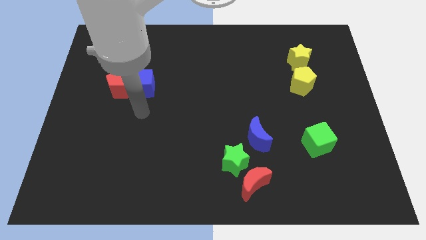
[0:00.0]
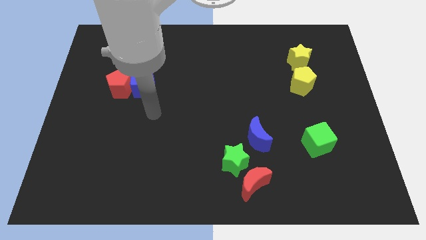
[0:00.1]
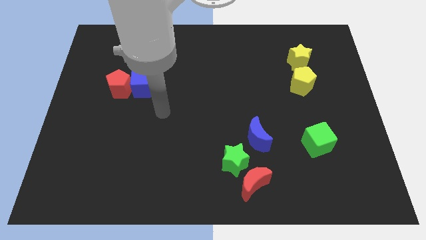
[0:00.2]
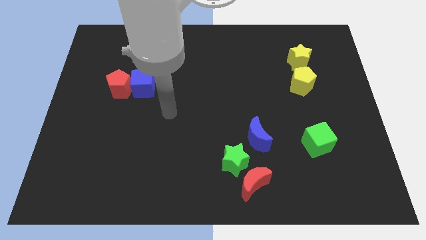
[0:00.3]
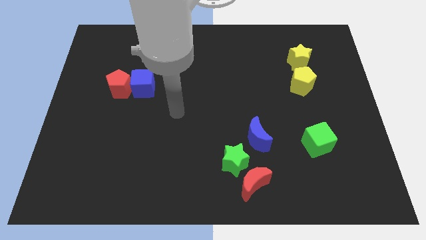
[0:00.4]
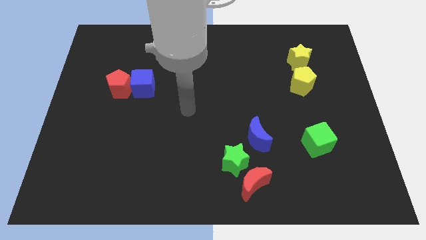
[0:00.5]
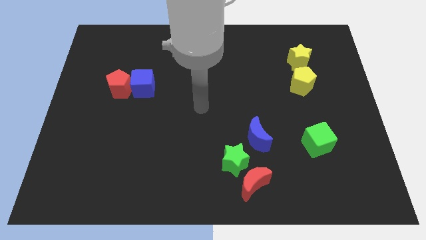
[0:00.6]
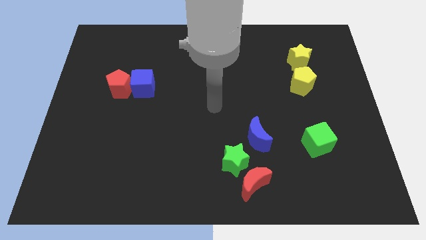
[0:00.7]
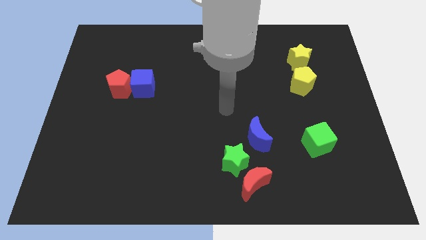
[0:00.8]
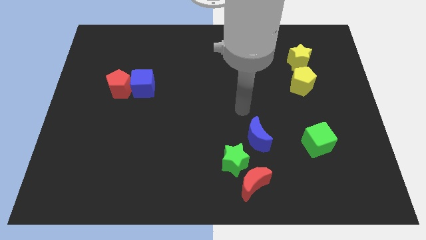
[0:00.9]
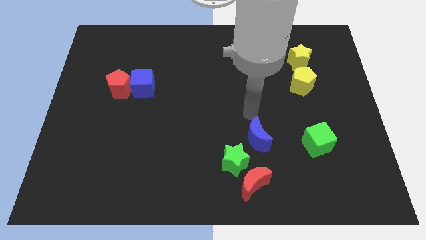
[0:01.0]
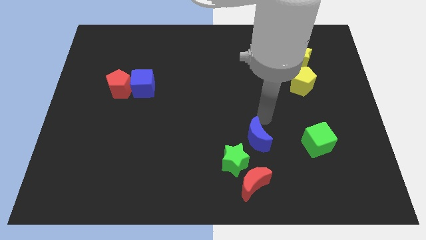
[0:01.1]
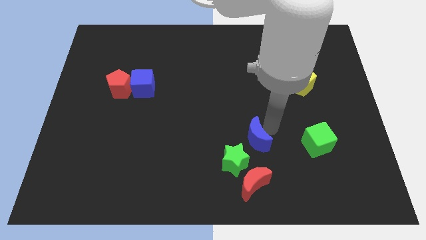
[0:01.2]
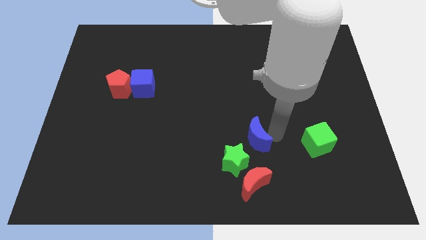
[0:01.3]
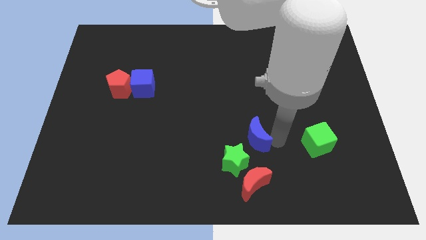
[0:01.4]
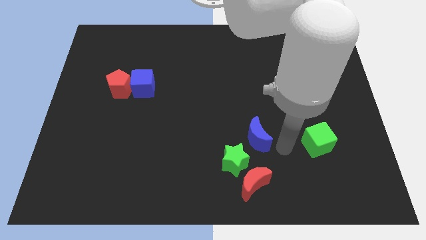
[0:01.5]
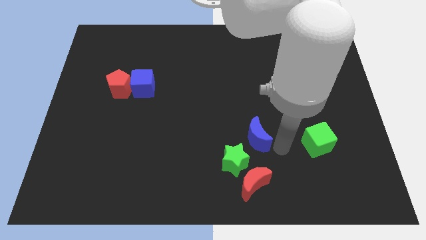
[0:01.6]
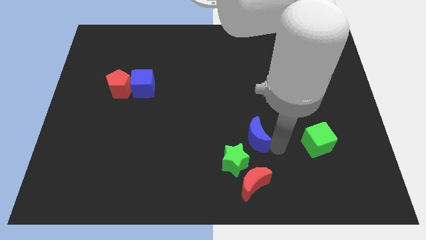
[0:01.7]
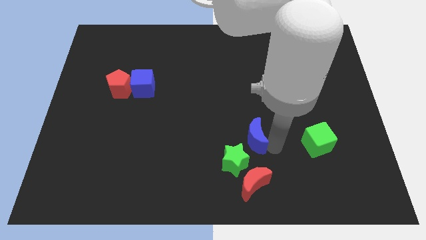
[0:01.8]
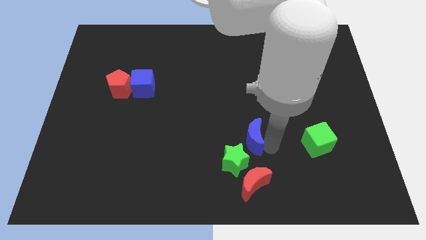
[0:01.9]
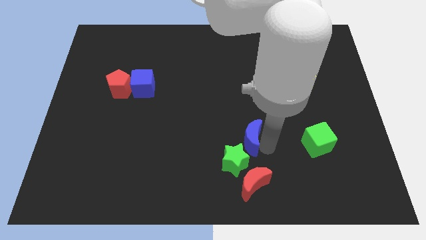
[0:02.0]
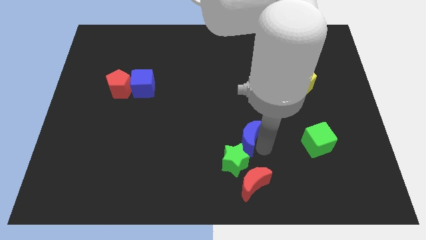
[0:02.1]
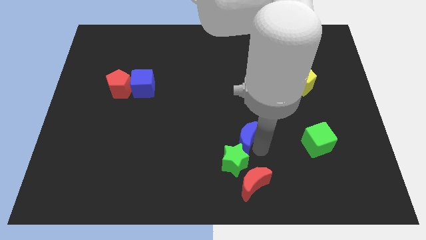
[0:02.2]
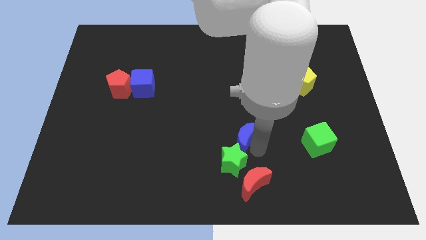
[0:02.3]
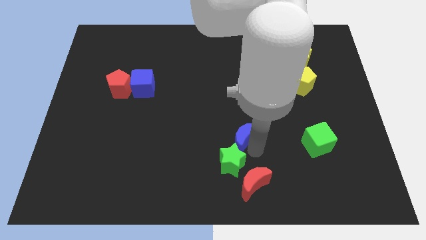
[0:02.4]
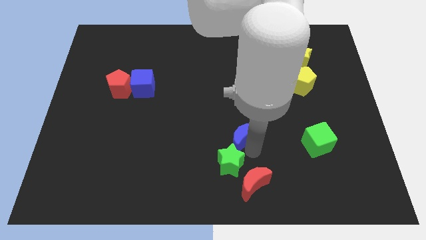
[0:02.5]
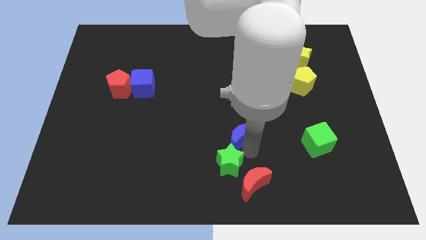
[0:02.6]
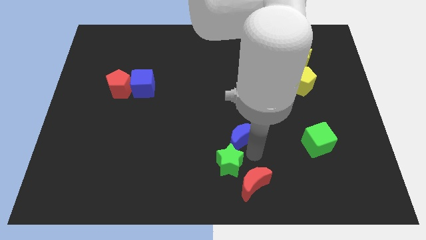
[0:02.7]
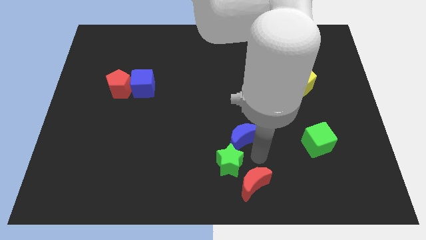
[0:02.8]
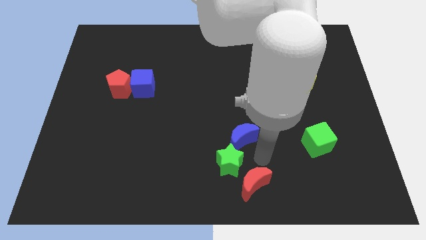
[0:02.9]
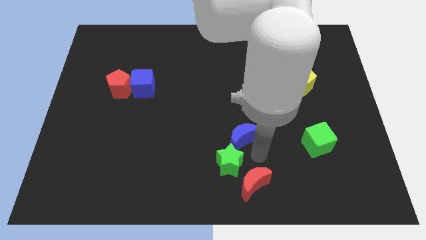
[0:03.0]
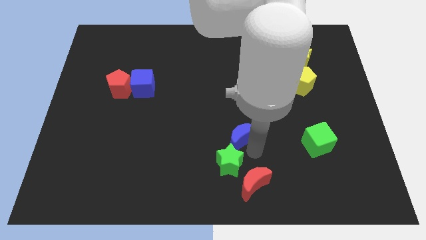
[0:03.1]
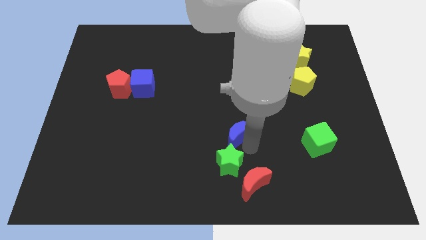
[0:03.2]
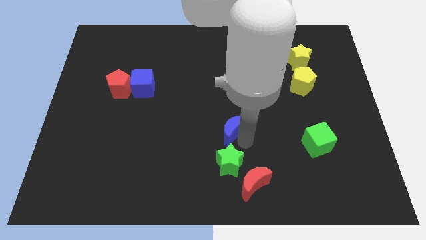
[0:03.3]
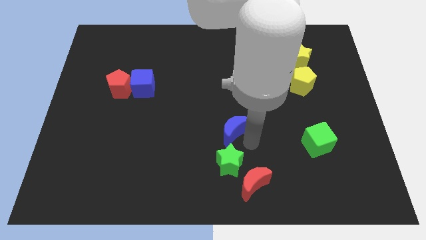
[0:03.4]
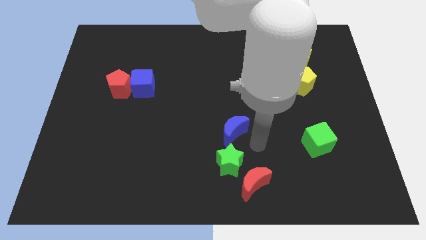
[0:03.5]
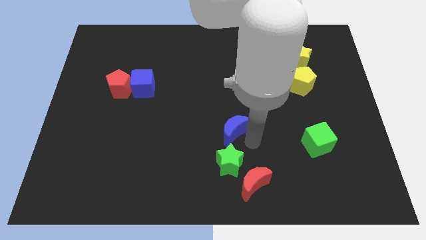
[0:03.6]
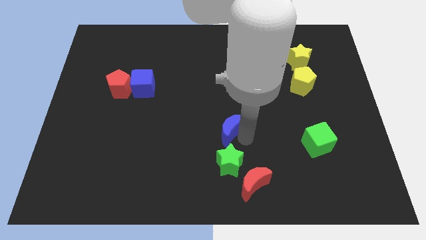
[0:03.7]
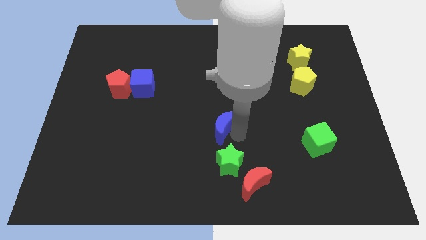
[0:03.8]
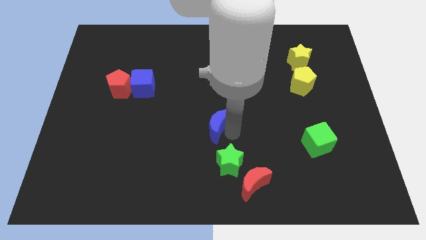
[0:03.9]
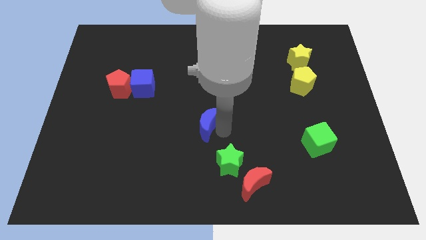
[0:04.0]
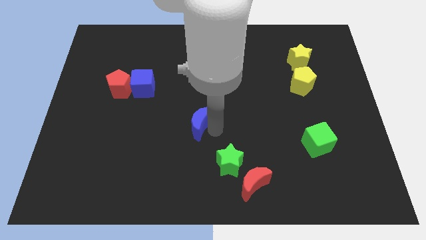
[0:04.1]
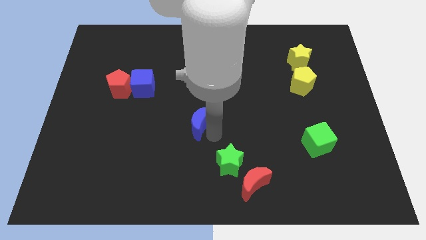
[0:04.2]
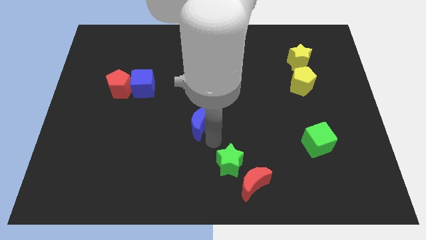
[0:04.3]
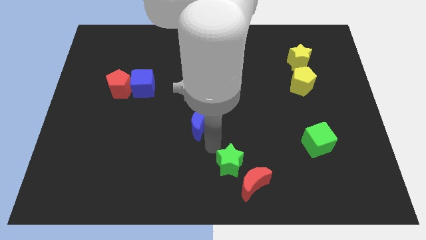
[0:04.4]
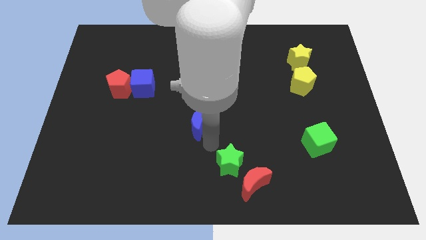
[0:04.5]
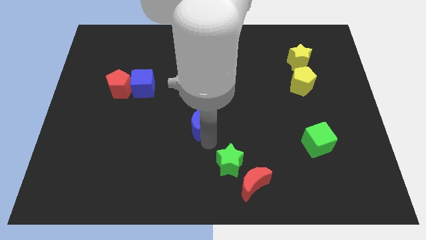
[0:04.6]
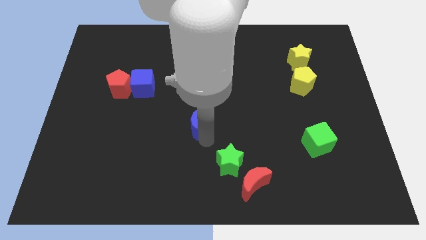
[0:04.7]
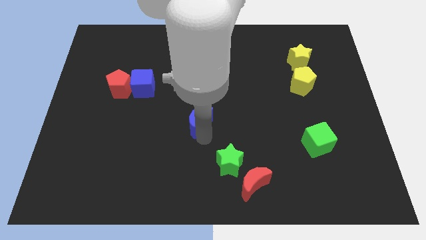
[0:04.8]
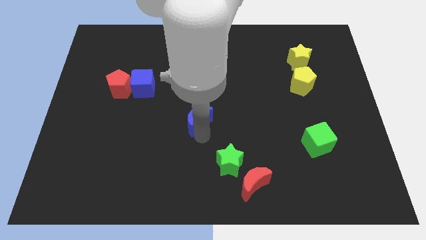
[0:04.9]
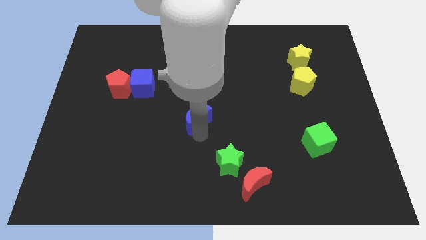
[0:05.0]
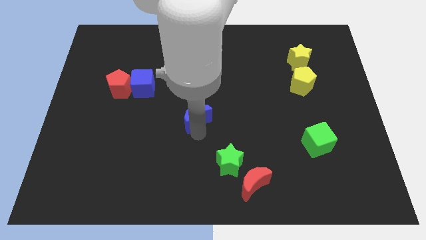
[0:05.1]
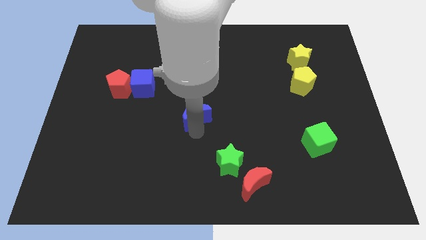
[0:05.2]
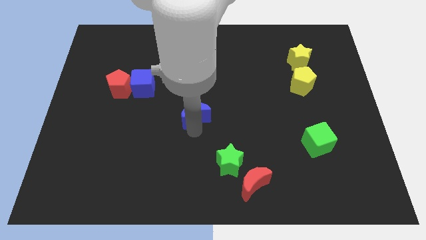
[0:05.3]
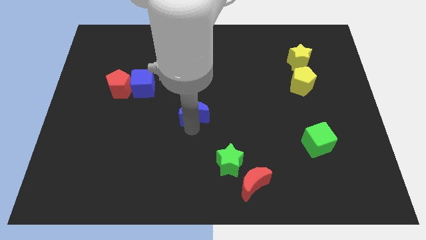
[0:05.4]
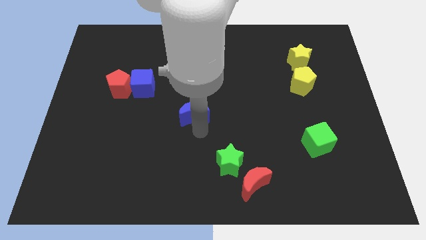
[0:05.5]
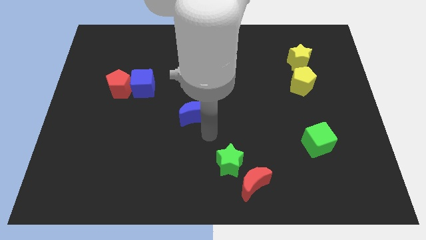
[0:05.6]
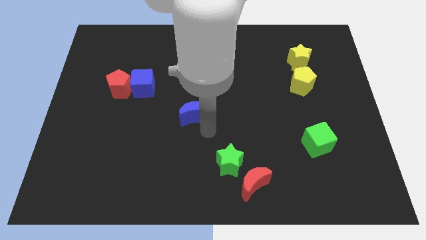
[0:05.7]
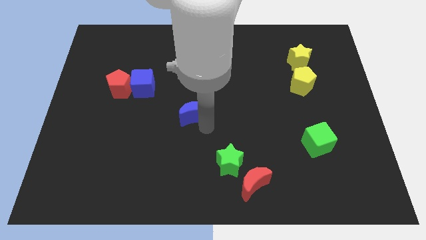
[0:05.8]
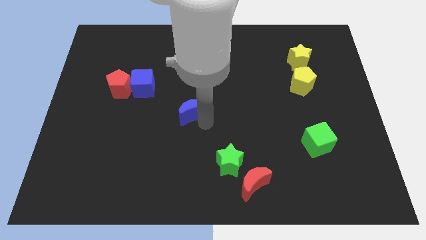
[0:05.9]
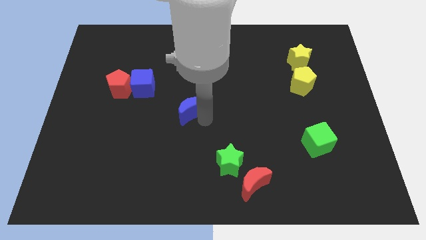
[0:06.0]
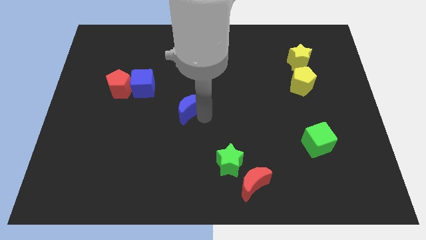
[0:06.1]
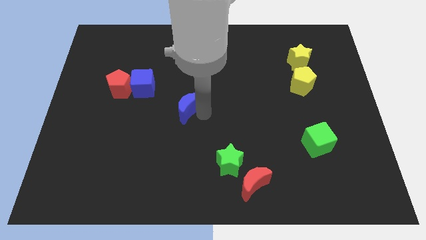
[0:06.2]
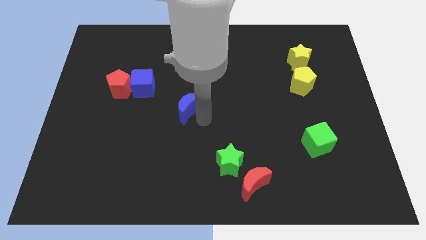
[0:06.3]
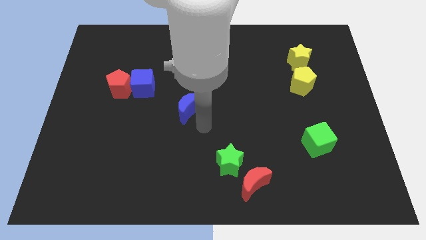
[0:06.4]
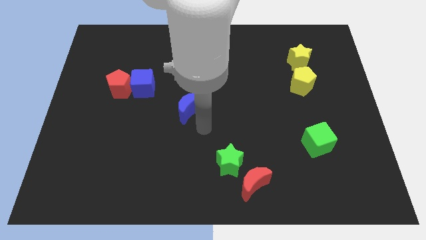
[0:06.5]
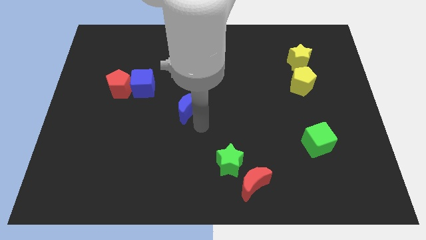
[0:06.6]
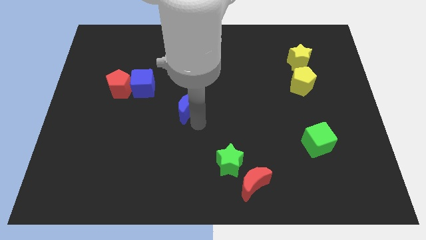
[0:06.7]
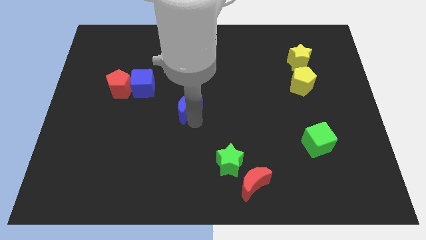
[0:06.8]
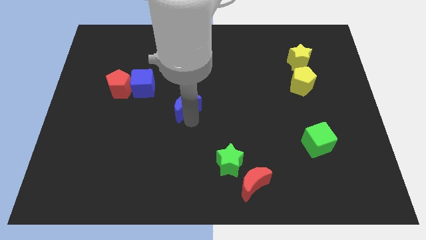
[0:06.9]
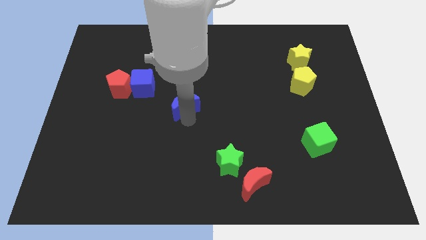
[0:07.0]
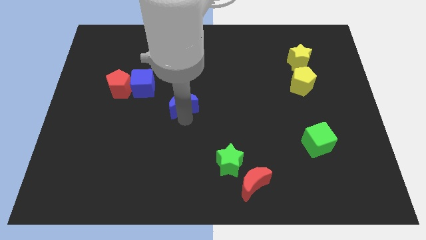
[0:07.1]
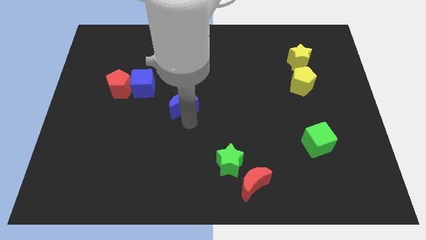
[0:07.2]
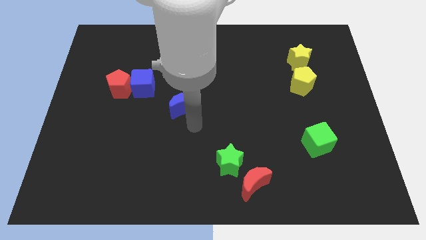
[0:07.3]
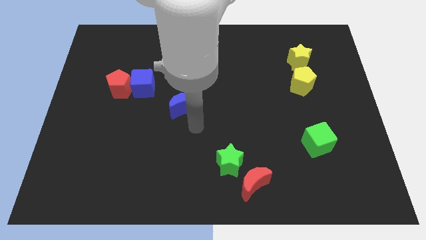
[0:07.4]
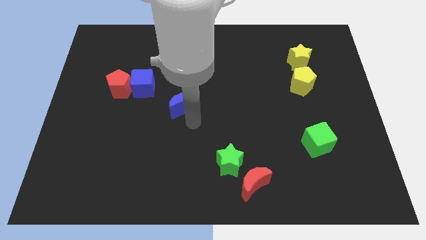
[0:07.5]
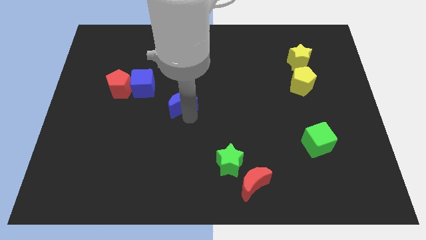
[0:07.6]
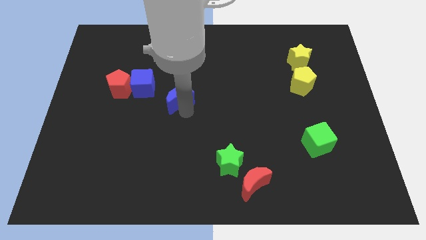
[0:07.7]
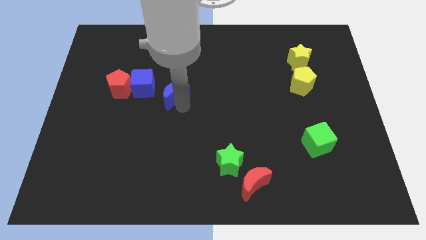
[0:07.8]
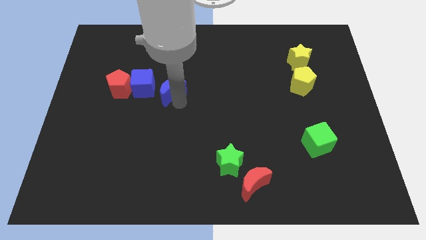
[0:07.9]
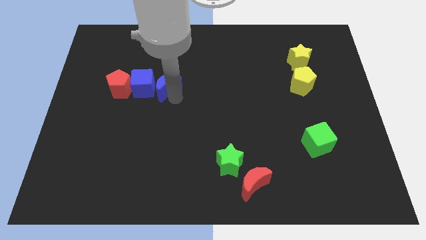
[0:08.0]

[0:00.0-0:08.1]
slide the blue moon close to the blue cube
